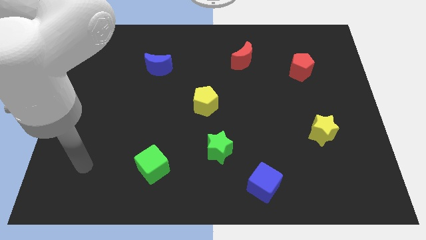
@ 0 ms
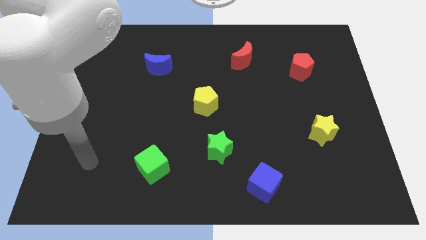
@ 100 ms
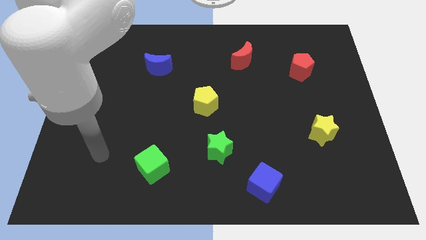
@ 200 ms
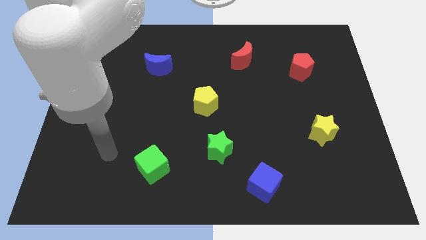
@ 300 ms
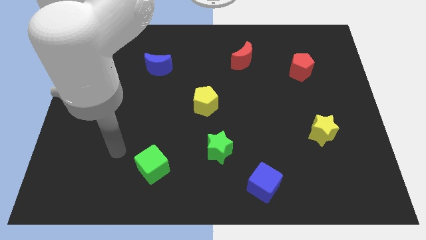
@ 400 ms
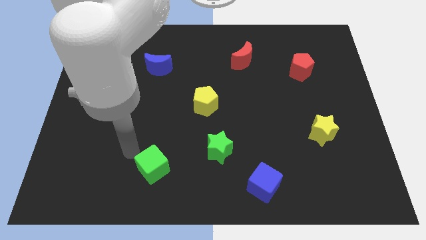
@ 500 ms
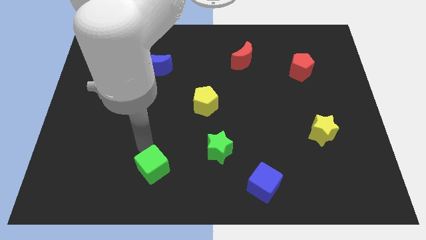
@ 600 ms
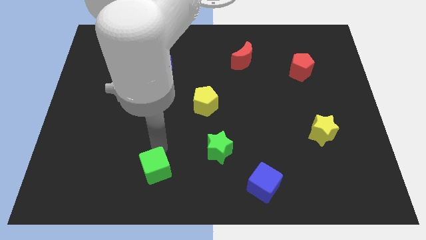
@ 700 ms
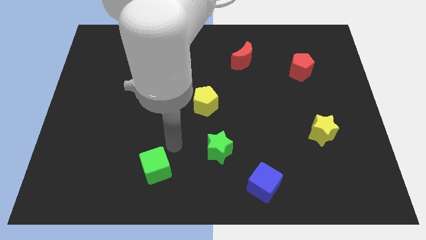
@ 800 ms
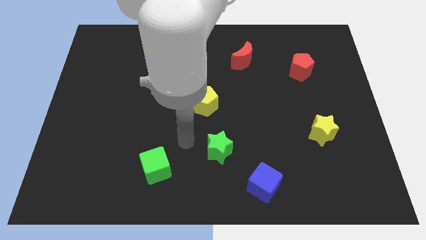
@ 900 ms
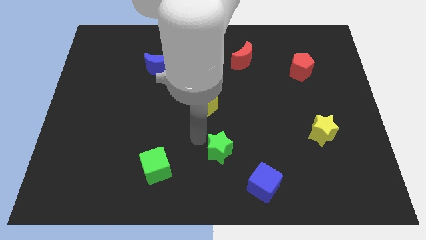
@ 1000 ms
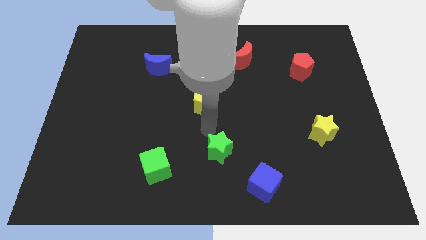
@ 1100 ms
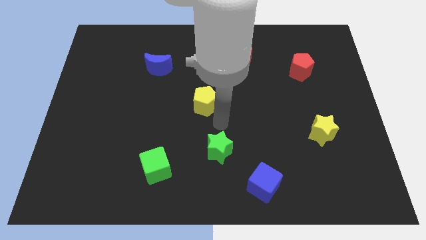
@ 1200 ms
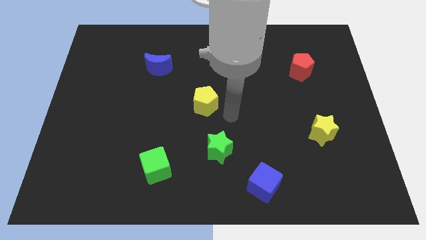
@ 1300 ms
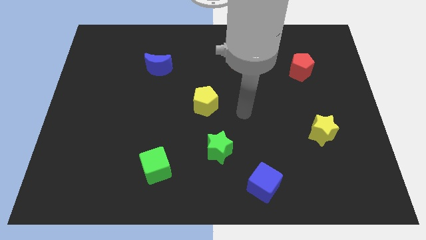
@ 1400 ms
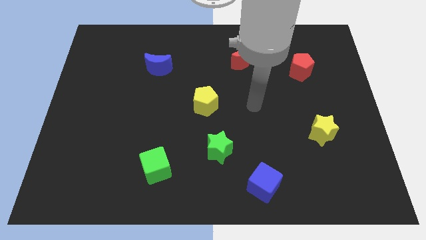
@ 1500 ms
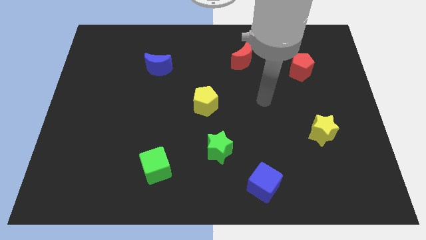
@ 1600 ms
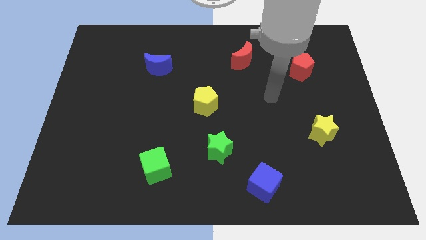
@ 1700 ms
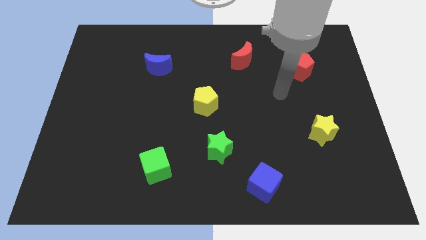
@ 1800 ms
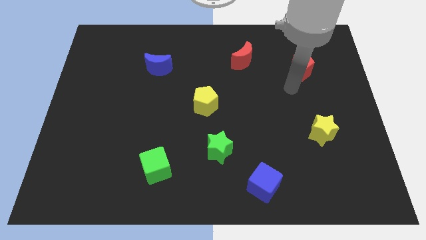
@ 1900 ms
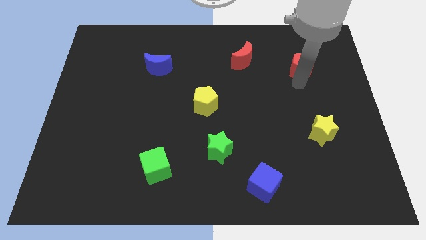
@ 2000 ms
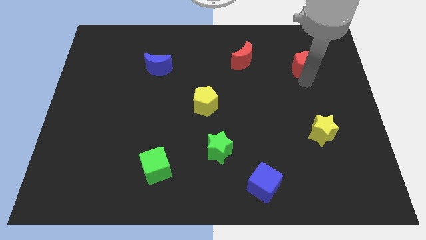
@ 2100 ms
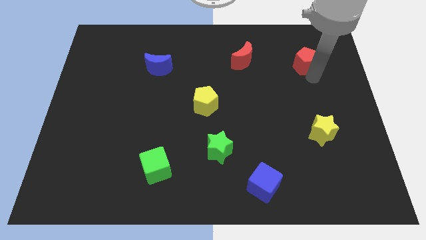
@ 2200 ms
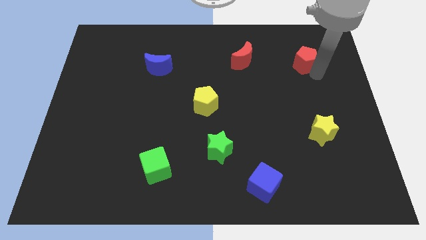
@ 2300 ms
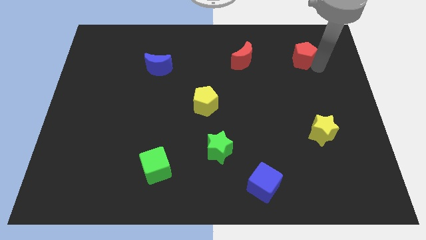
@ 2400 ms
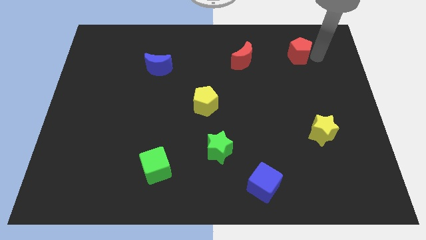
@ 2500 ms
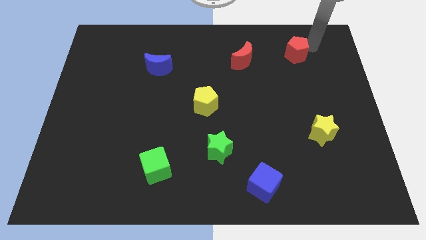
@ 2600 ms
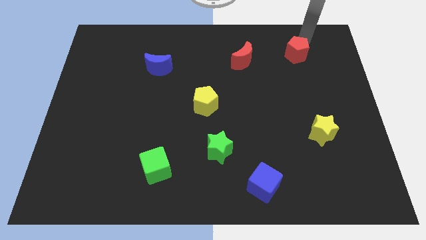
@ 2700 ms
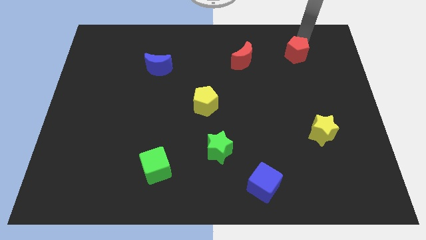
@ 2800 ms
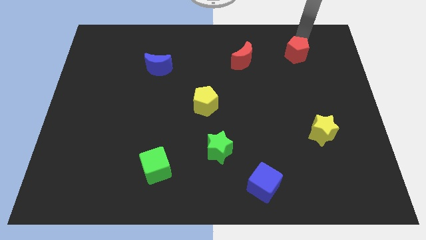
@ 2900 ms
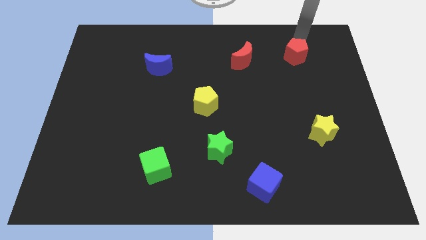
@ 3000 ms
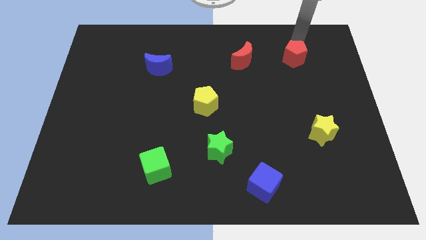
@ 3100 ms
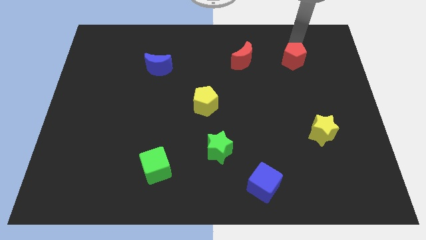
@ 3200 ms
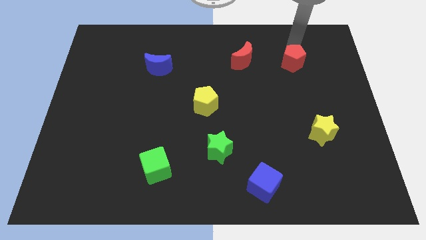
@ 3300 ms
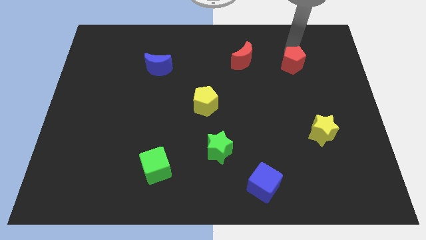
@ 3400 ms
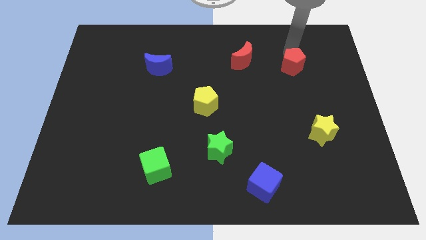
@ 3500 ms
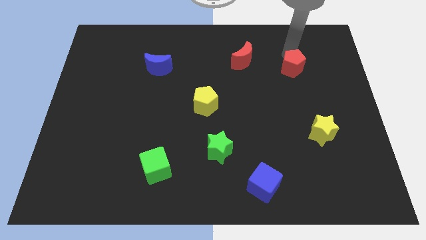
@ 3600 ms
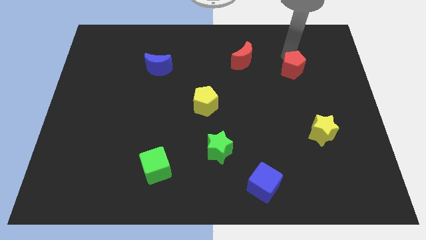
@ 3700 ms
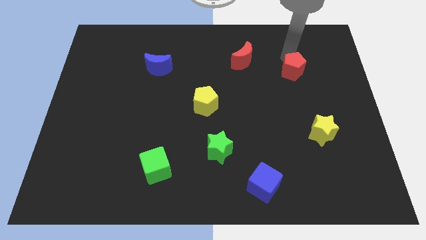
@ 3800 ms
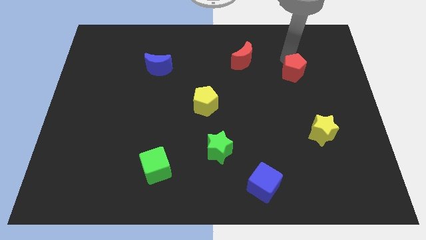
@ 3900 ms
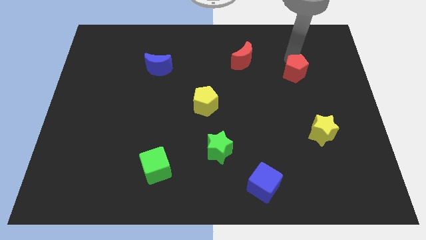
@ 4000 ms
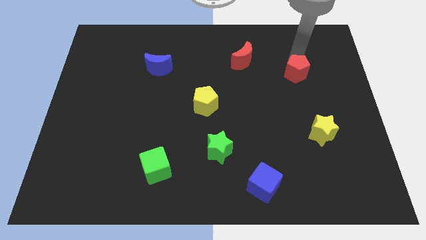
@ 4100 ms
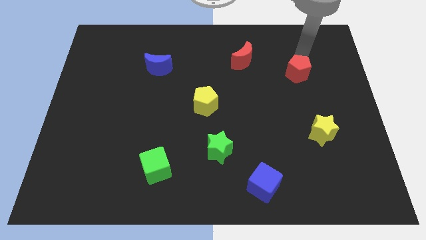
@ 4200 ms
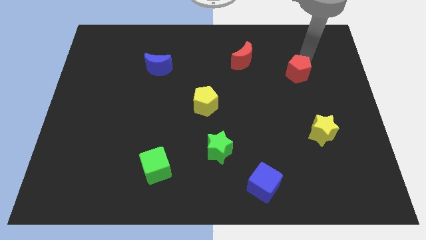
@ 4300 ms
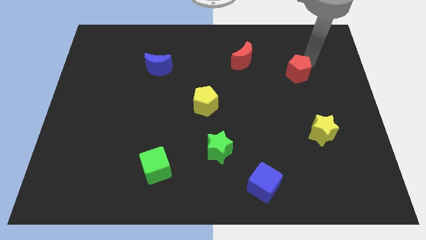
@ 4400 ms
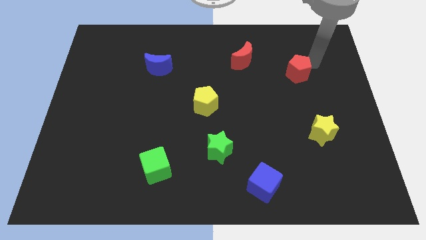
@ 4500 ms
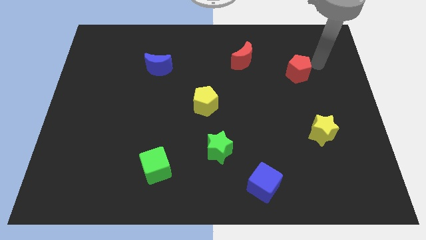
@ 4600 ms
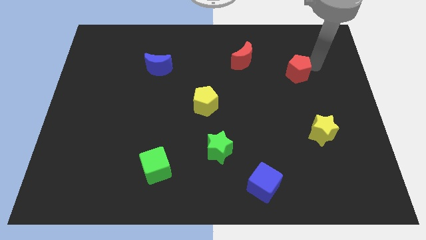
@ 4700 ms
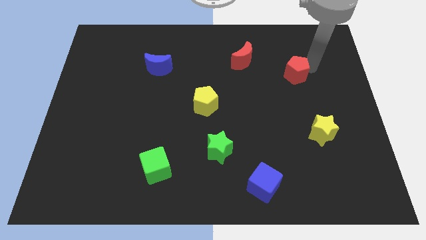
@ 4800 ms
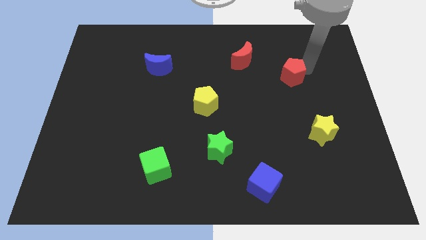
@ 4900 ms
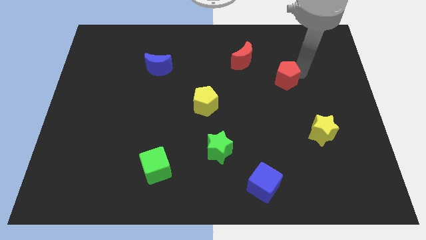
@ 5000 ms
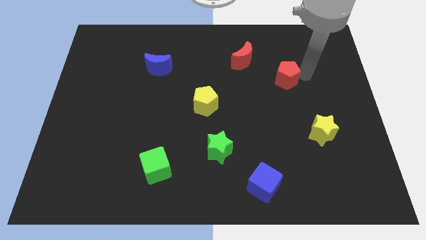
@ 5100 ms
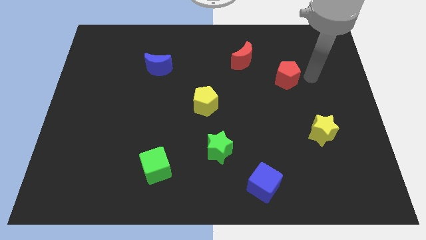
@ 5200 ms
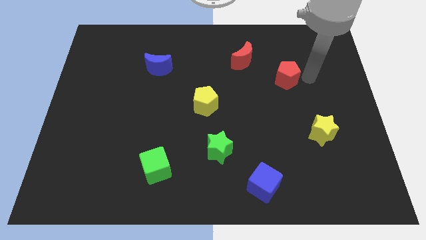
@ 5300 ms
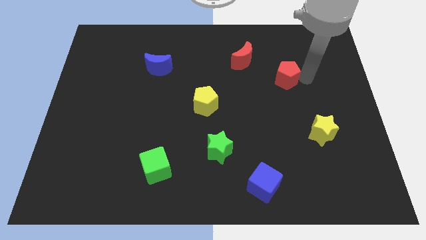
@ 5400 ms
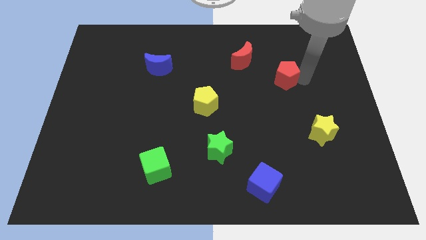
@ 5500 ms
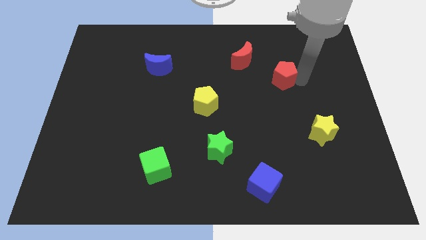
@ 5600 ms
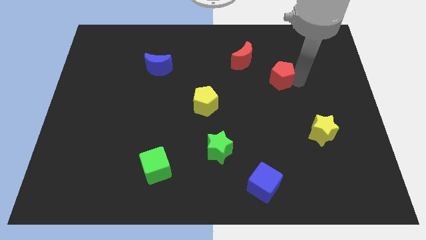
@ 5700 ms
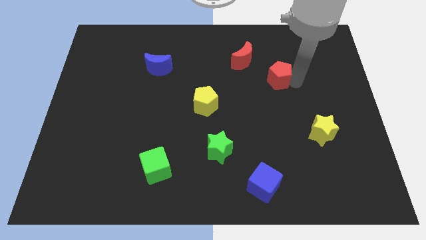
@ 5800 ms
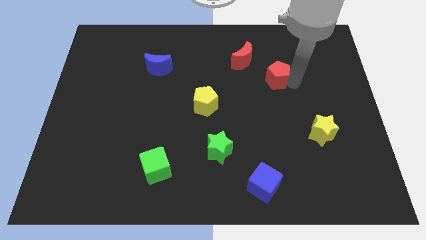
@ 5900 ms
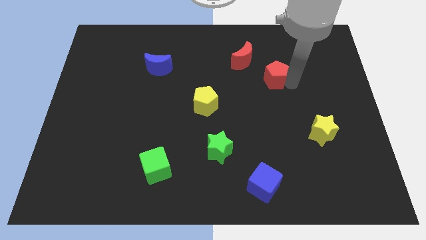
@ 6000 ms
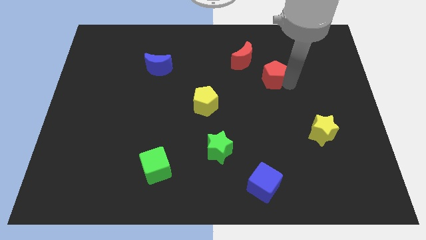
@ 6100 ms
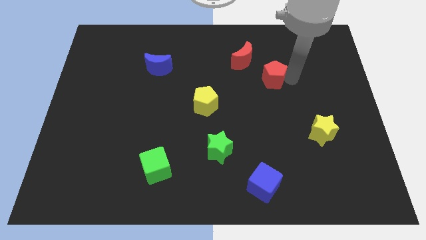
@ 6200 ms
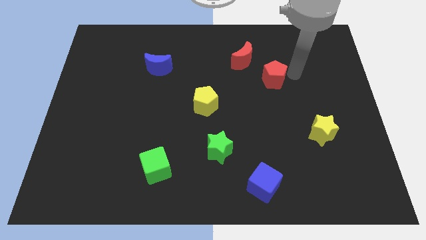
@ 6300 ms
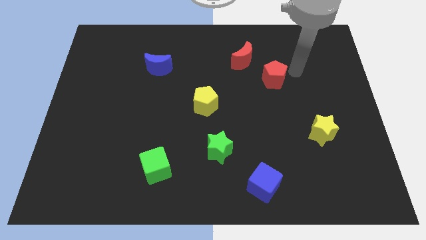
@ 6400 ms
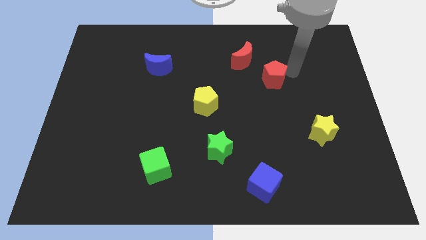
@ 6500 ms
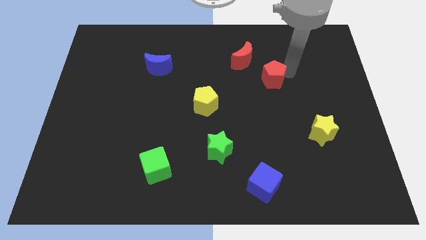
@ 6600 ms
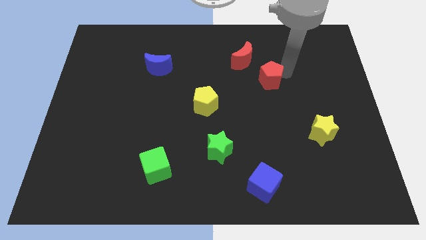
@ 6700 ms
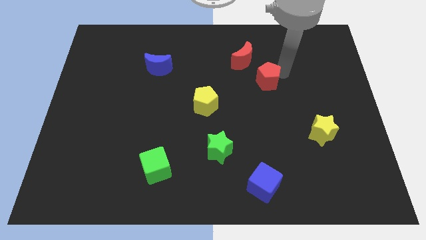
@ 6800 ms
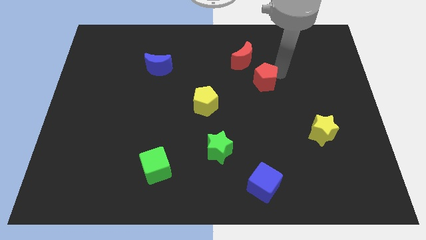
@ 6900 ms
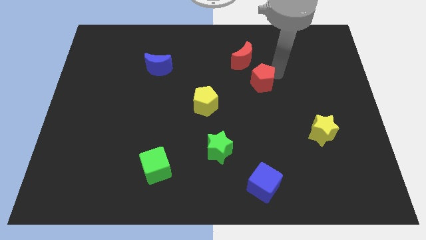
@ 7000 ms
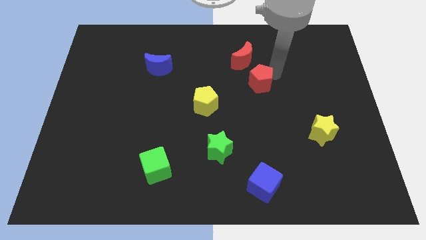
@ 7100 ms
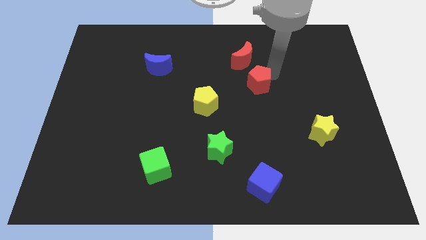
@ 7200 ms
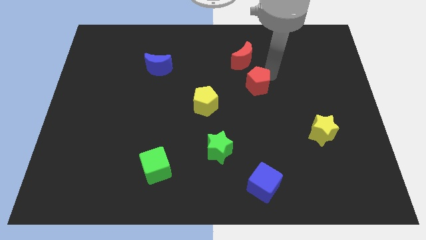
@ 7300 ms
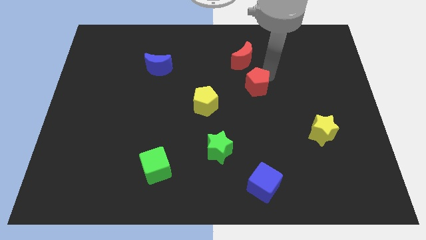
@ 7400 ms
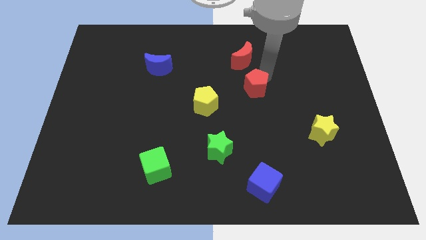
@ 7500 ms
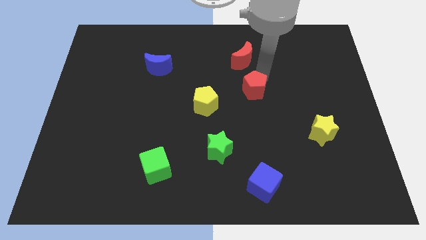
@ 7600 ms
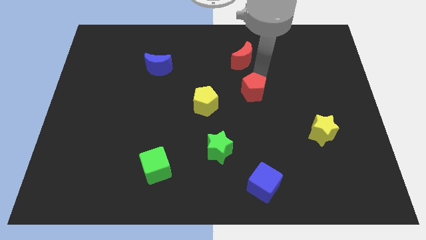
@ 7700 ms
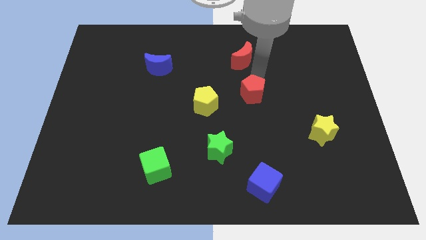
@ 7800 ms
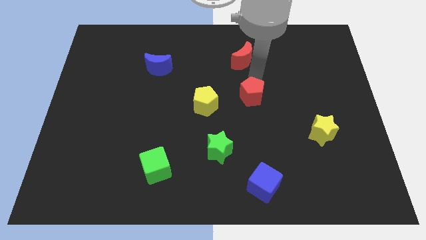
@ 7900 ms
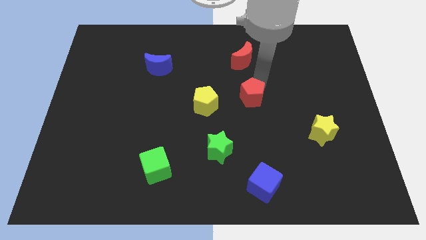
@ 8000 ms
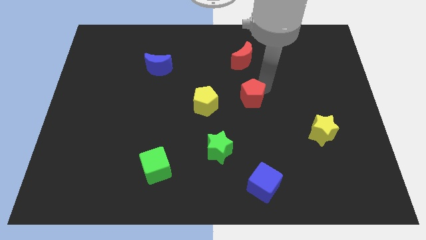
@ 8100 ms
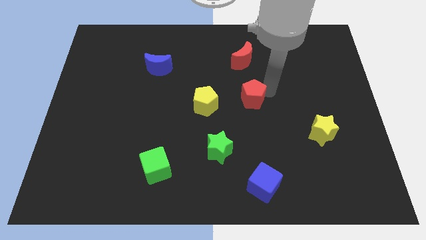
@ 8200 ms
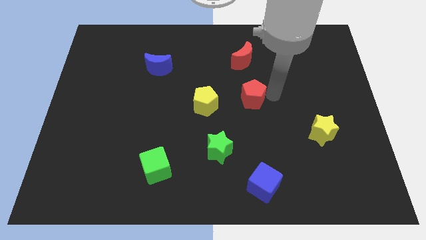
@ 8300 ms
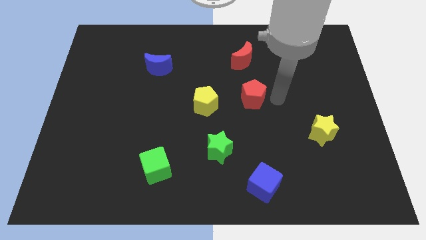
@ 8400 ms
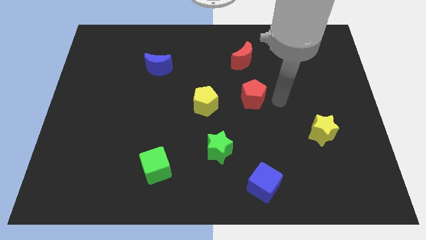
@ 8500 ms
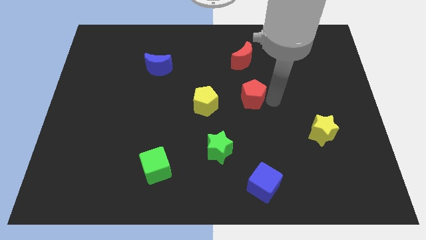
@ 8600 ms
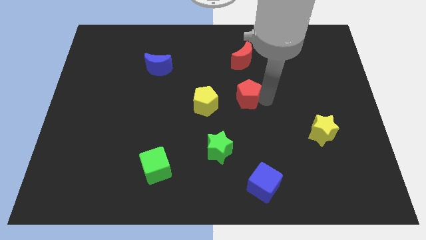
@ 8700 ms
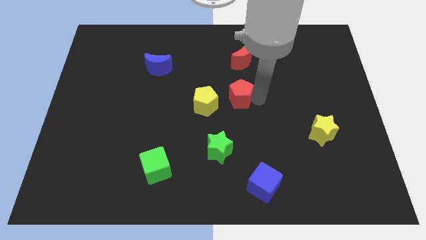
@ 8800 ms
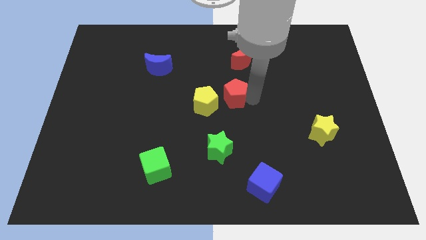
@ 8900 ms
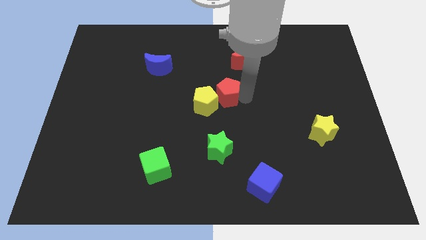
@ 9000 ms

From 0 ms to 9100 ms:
slide the red pentagon close to the yellow pentagon
